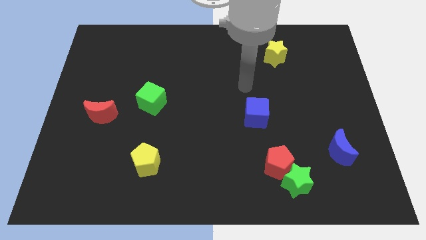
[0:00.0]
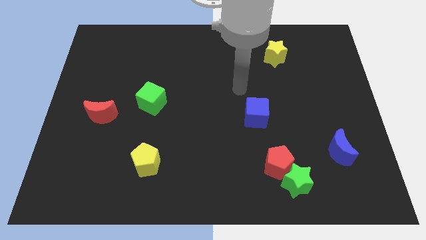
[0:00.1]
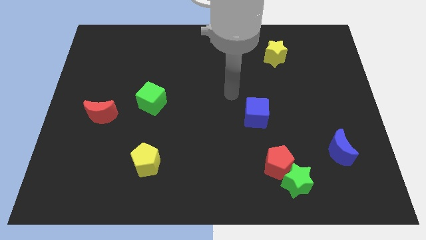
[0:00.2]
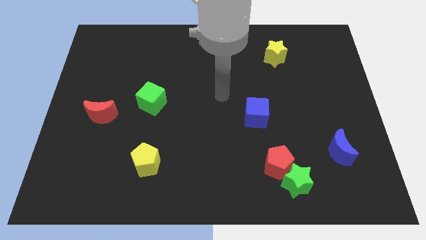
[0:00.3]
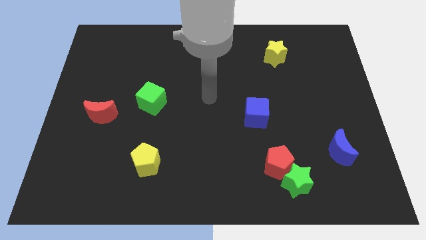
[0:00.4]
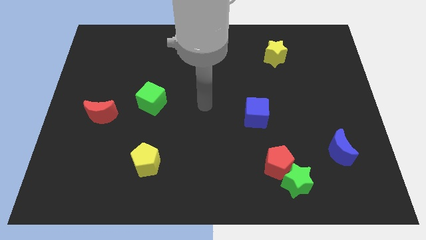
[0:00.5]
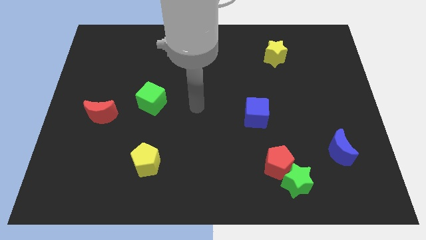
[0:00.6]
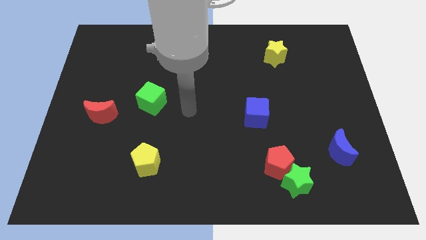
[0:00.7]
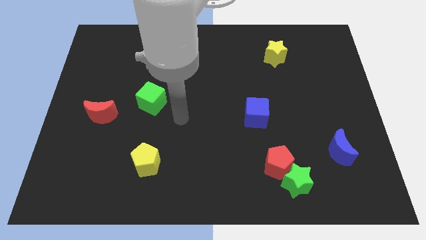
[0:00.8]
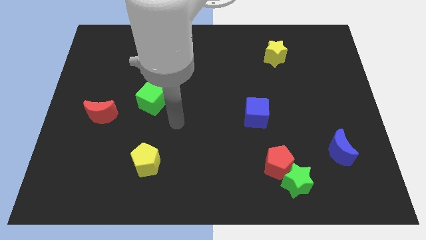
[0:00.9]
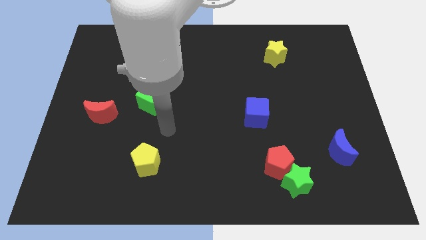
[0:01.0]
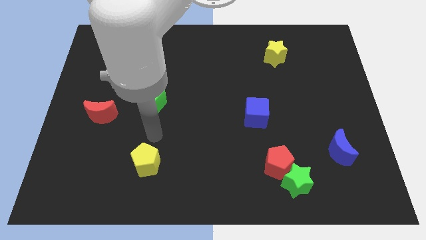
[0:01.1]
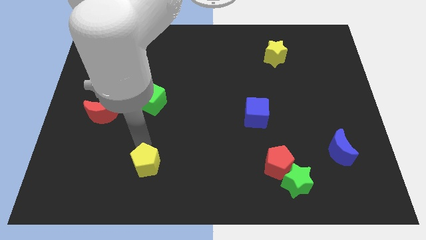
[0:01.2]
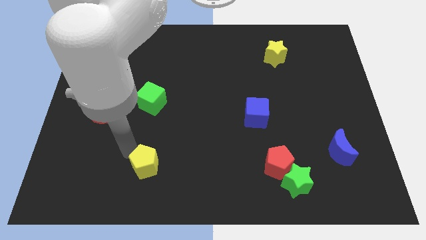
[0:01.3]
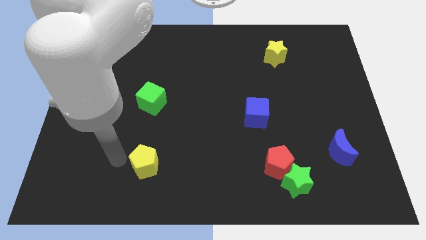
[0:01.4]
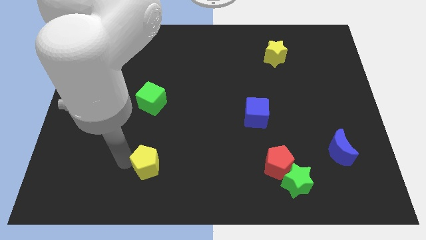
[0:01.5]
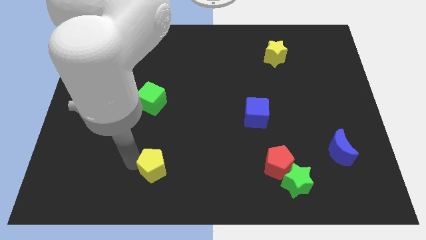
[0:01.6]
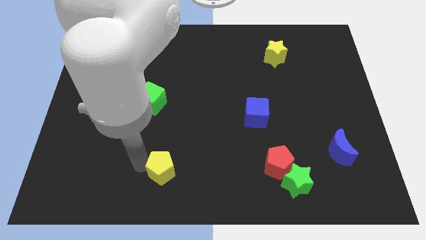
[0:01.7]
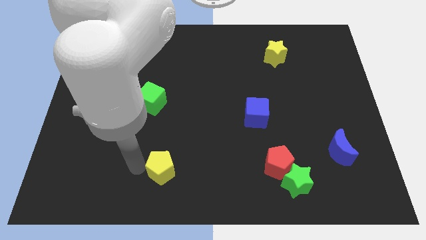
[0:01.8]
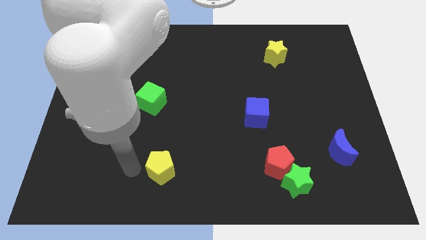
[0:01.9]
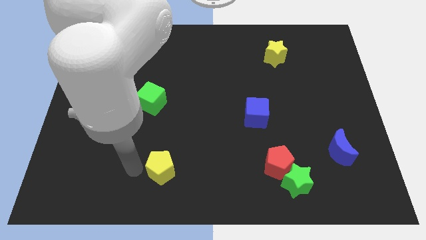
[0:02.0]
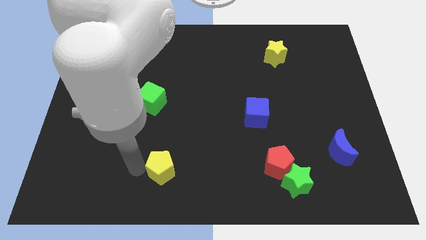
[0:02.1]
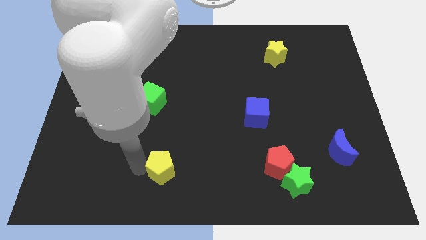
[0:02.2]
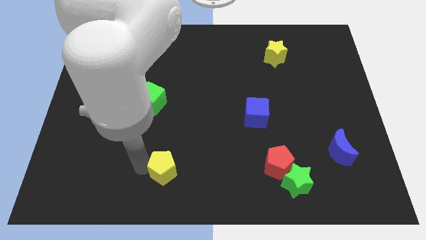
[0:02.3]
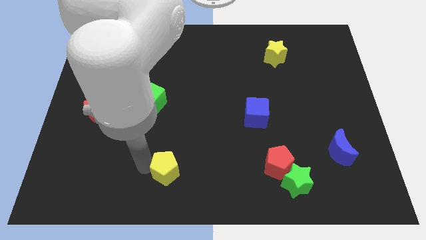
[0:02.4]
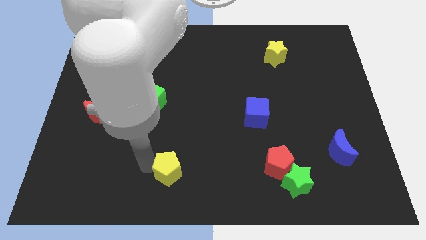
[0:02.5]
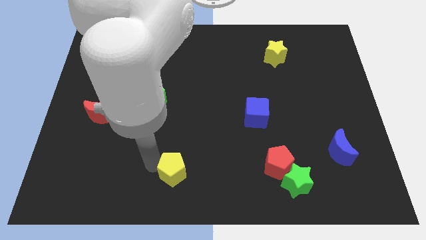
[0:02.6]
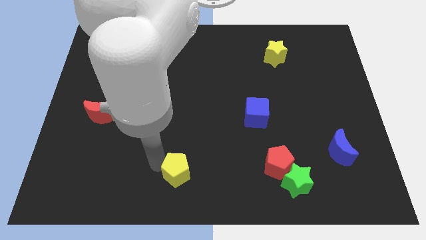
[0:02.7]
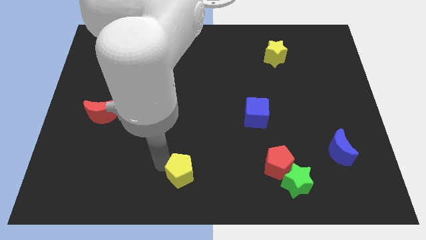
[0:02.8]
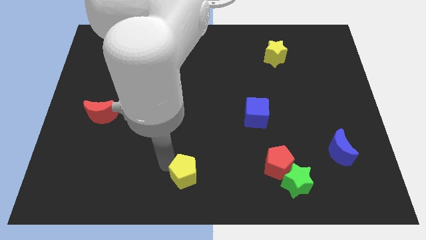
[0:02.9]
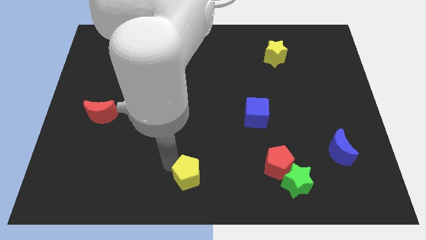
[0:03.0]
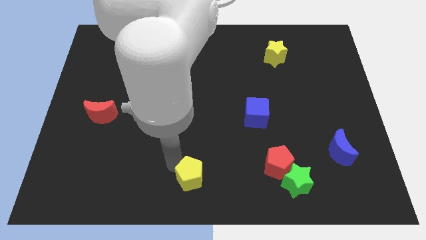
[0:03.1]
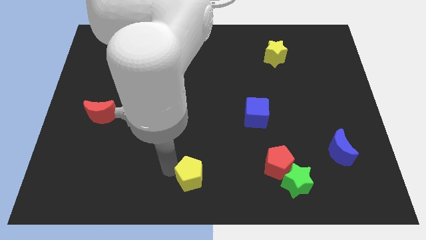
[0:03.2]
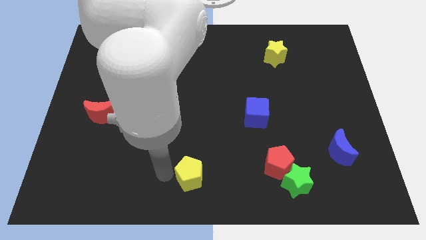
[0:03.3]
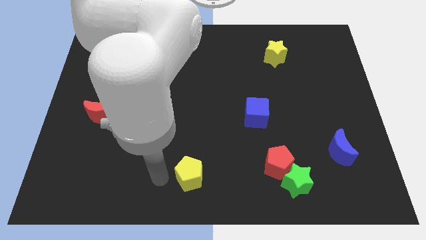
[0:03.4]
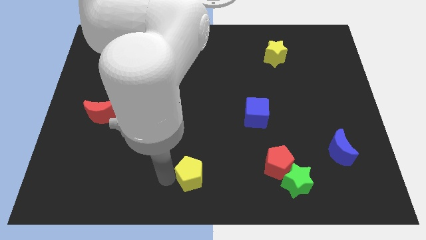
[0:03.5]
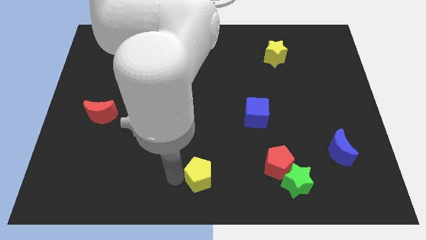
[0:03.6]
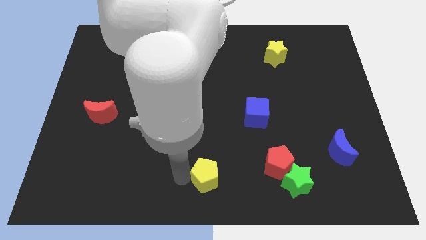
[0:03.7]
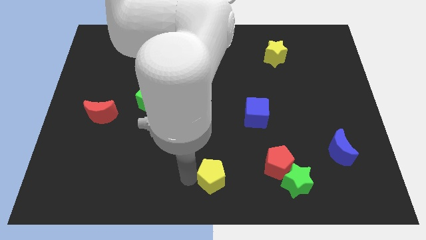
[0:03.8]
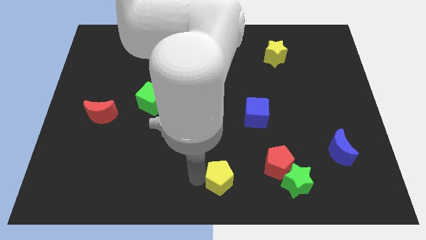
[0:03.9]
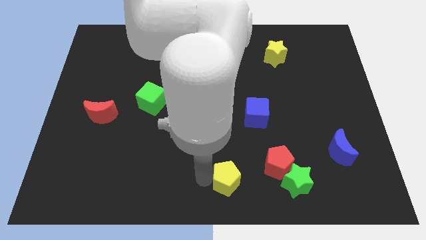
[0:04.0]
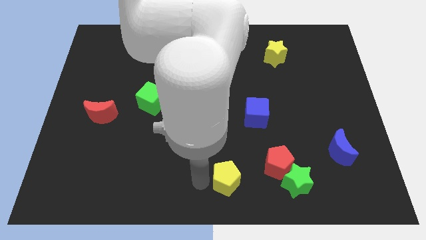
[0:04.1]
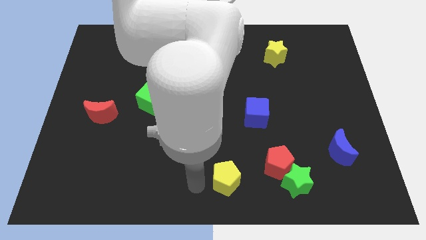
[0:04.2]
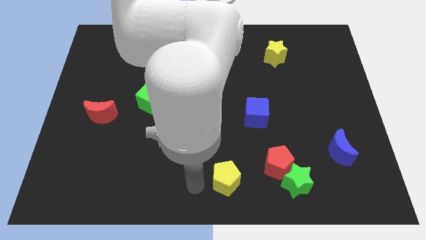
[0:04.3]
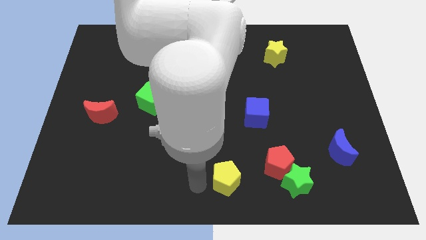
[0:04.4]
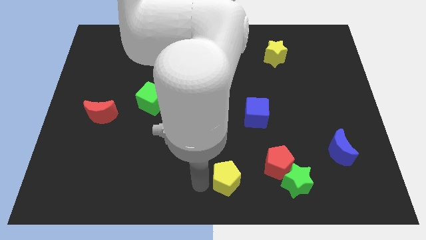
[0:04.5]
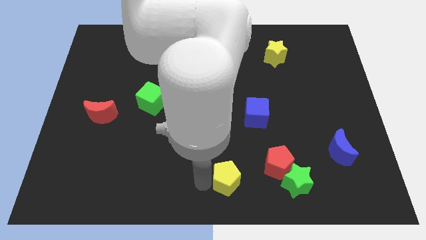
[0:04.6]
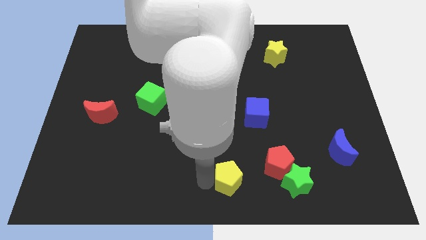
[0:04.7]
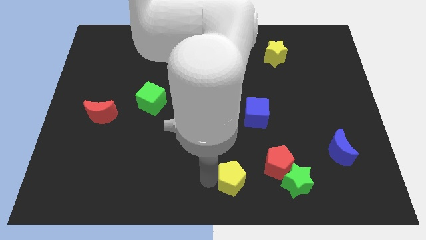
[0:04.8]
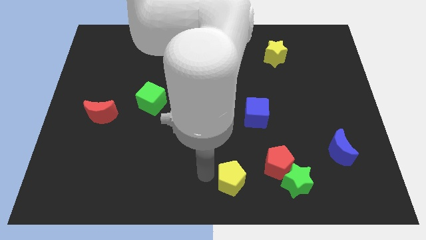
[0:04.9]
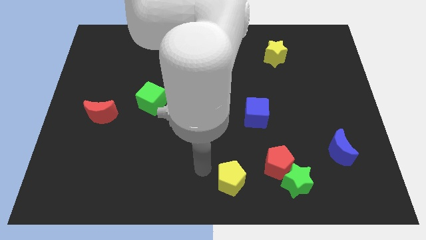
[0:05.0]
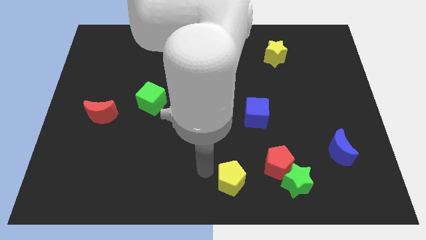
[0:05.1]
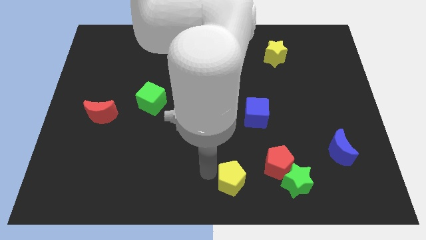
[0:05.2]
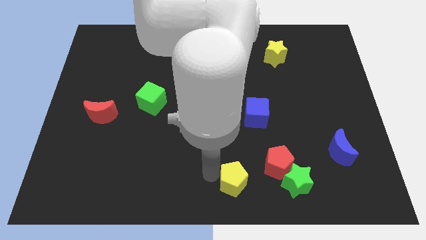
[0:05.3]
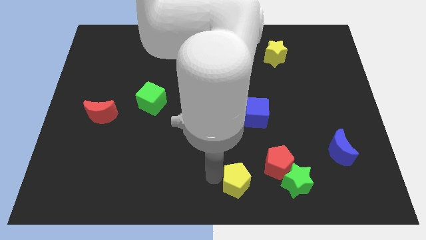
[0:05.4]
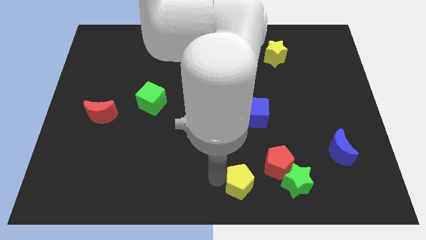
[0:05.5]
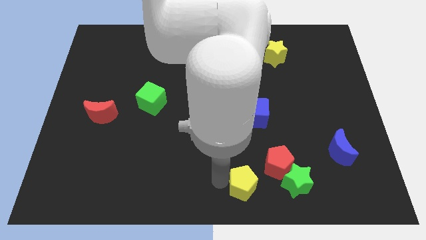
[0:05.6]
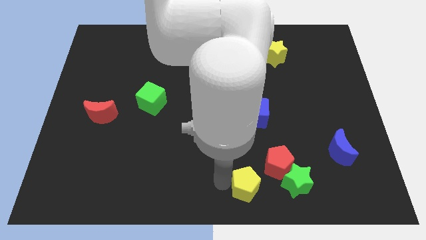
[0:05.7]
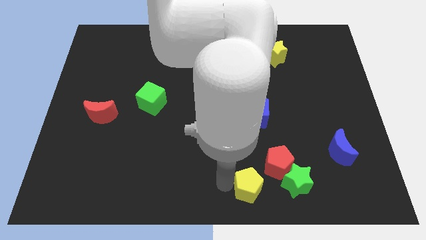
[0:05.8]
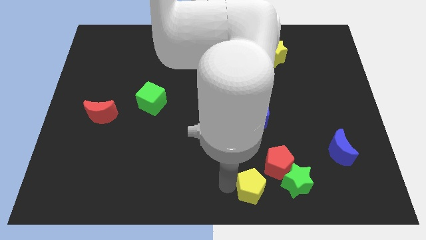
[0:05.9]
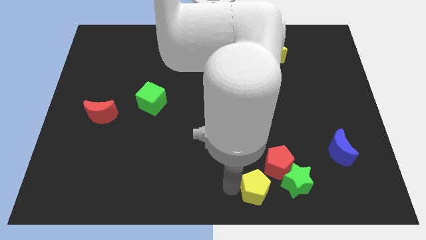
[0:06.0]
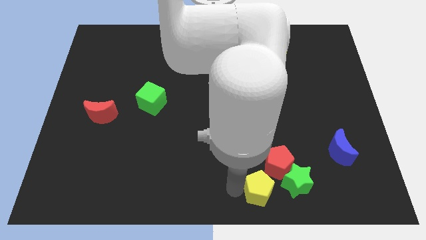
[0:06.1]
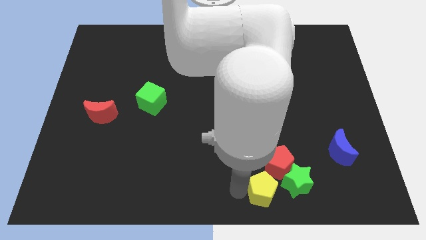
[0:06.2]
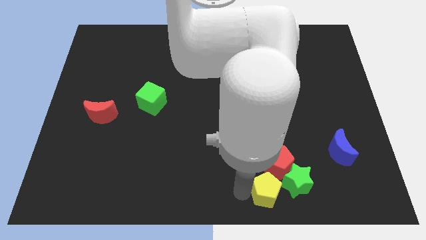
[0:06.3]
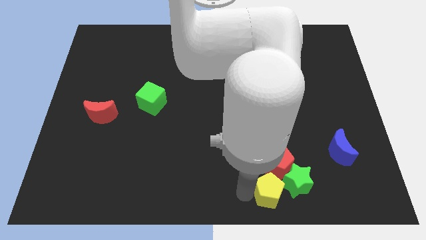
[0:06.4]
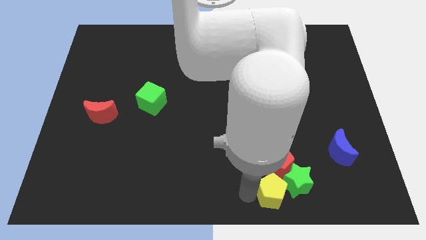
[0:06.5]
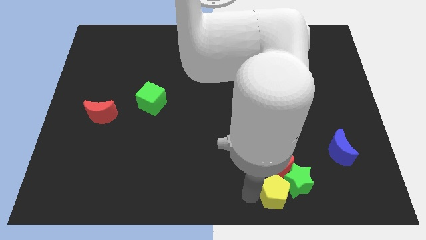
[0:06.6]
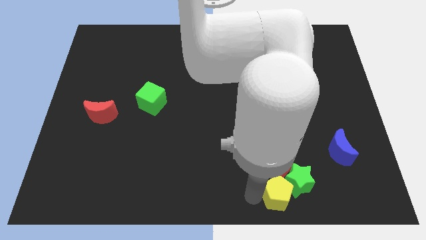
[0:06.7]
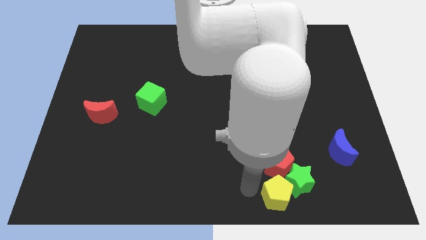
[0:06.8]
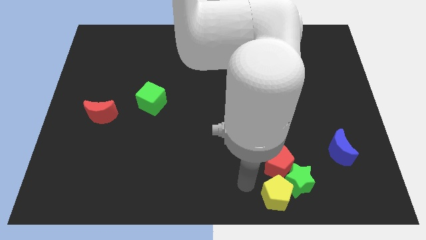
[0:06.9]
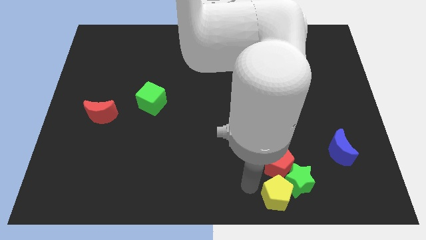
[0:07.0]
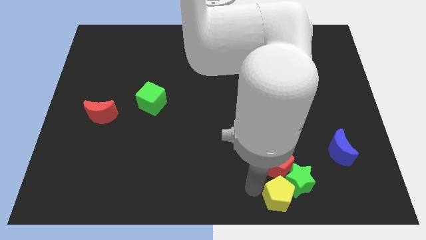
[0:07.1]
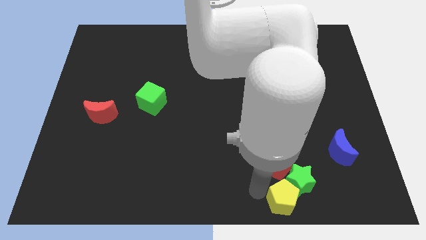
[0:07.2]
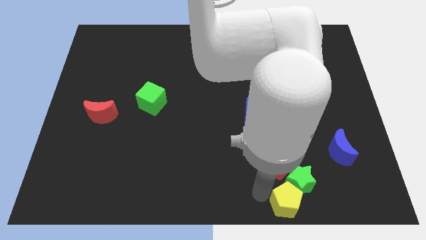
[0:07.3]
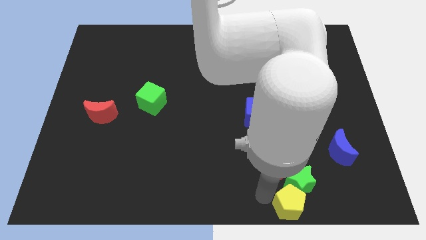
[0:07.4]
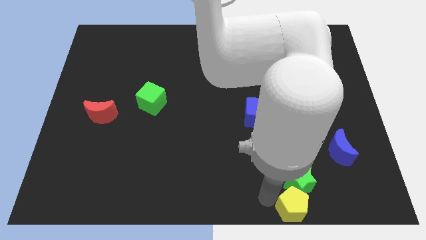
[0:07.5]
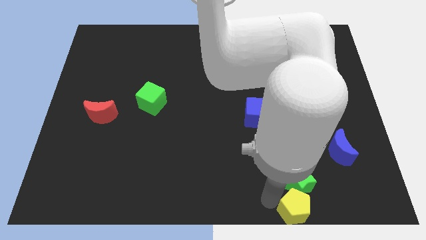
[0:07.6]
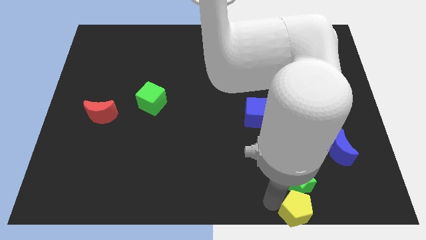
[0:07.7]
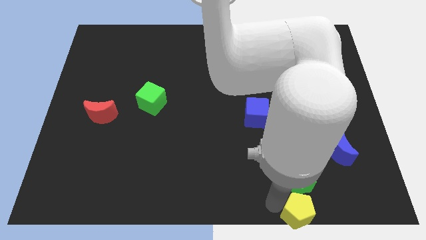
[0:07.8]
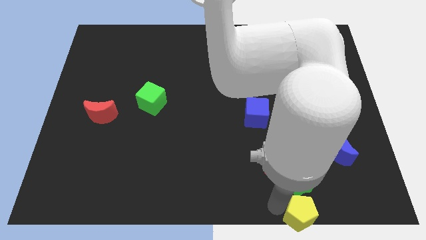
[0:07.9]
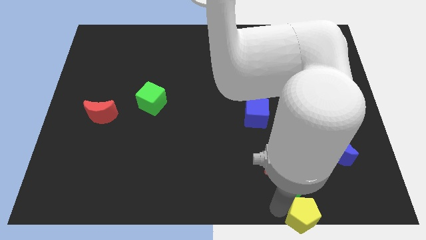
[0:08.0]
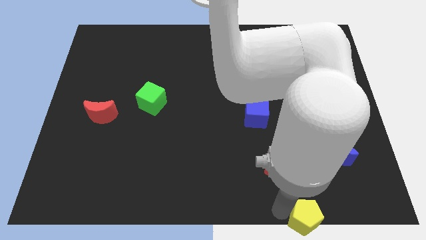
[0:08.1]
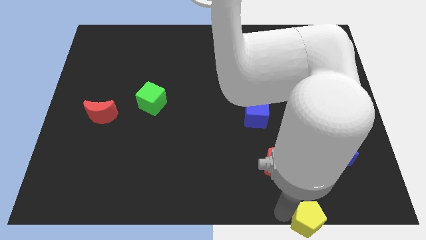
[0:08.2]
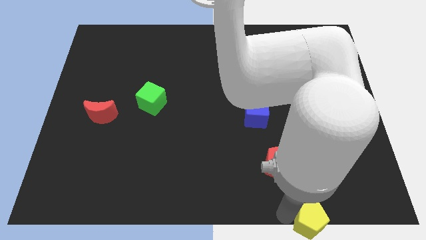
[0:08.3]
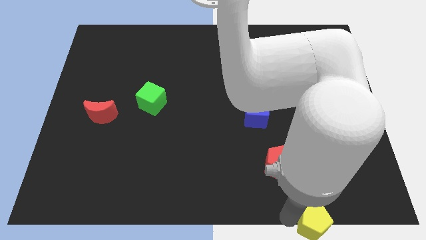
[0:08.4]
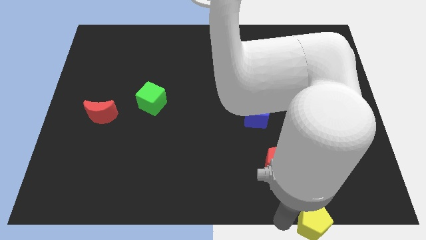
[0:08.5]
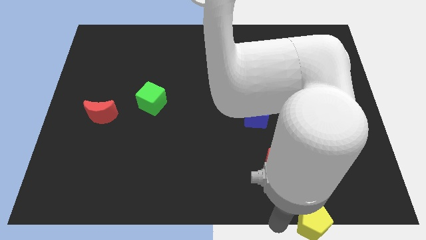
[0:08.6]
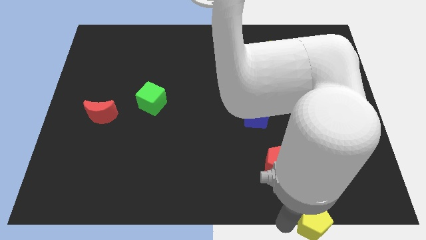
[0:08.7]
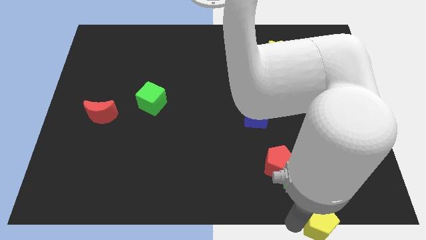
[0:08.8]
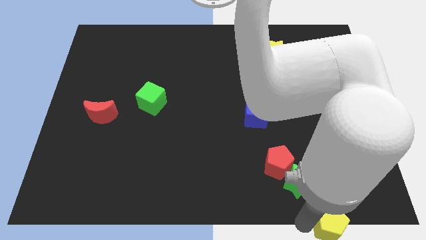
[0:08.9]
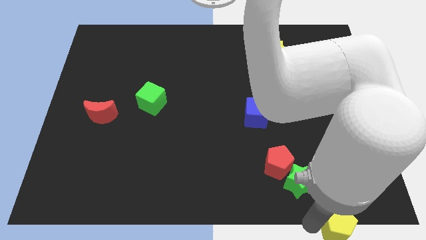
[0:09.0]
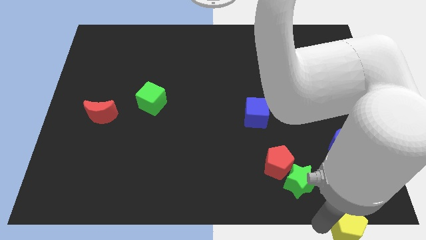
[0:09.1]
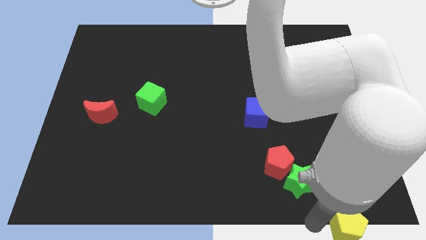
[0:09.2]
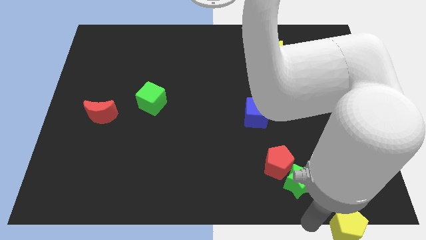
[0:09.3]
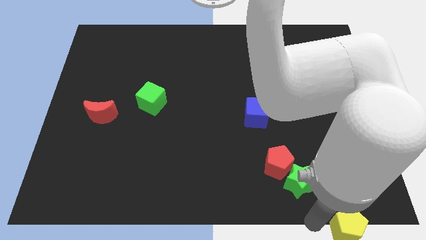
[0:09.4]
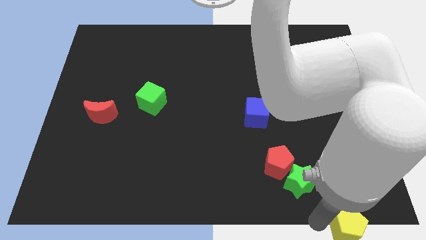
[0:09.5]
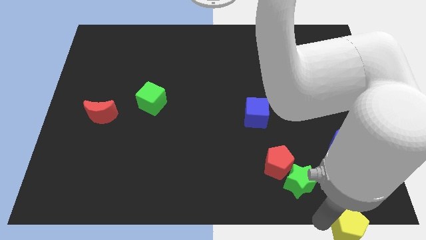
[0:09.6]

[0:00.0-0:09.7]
slide the yellow pentagon to the bottom right
